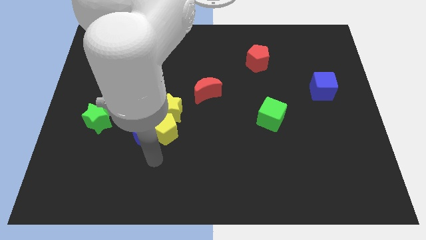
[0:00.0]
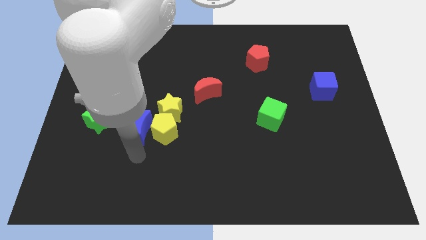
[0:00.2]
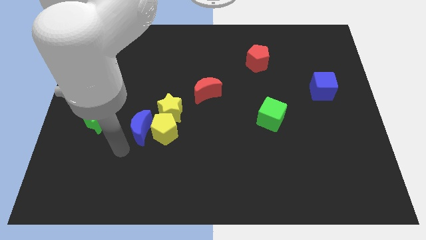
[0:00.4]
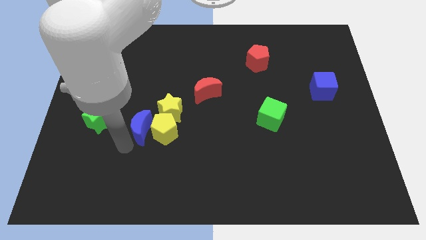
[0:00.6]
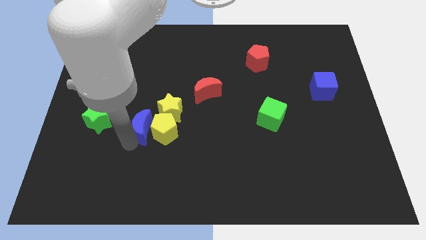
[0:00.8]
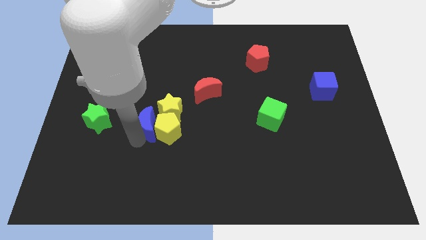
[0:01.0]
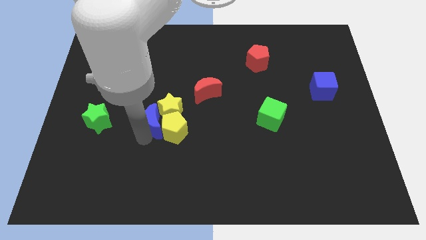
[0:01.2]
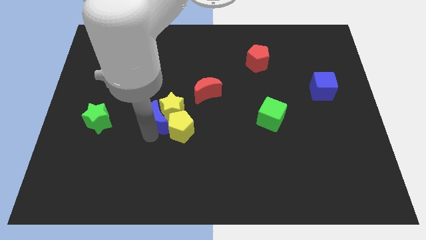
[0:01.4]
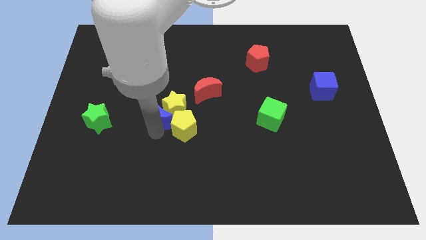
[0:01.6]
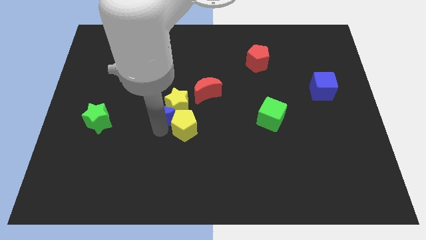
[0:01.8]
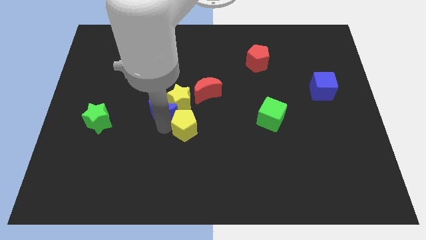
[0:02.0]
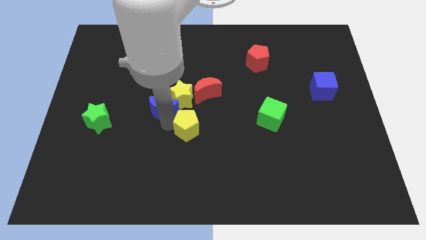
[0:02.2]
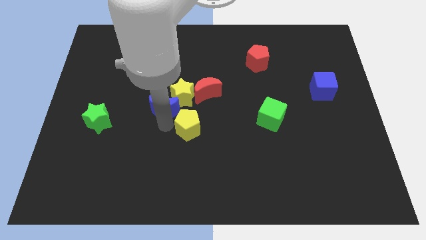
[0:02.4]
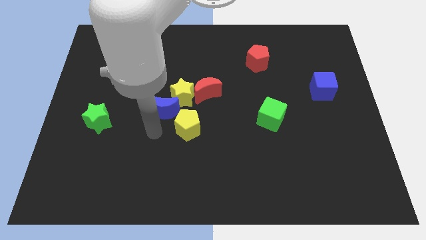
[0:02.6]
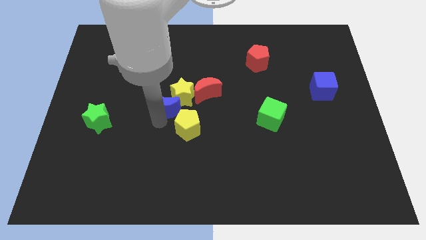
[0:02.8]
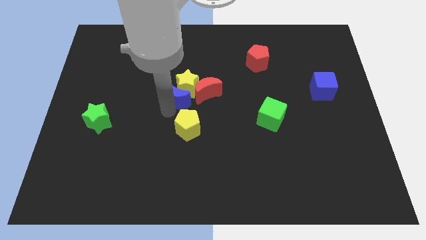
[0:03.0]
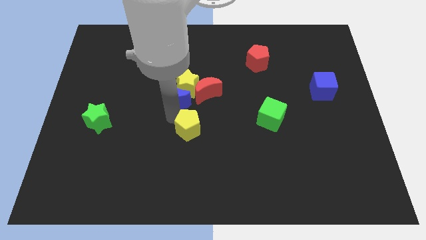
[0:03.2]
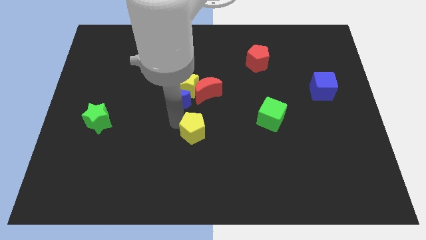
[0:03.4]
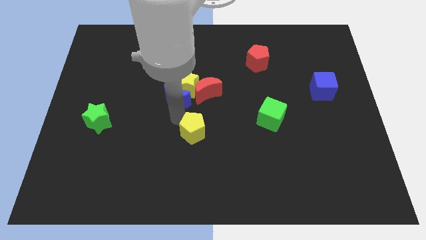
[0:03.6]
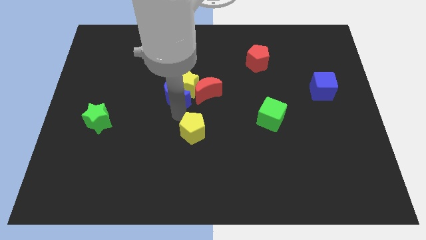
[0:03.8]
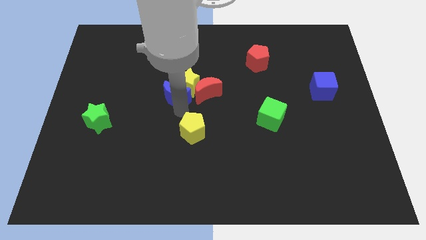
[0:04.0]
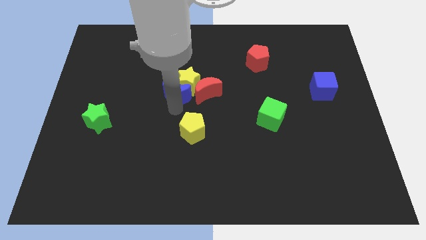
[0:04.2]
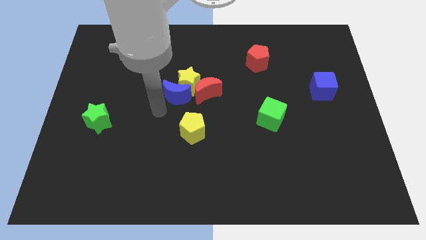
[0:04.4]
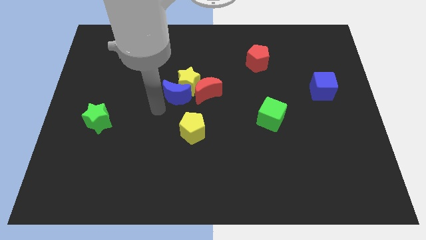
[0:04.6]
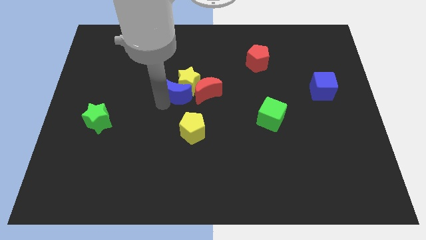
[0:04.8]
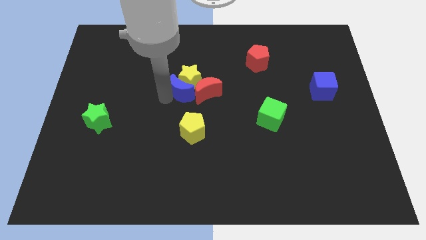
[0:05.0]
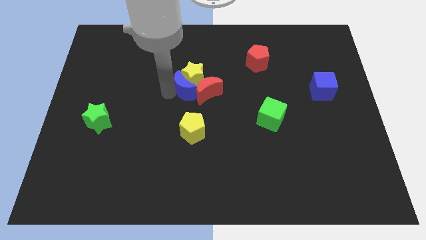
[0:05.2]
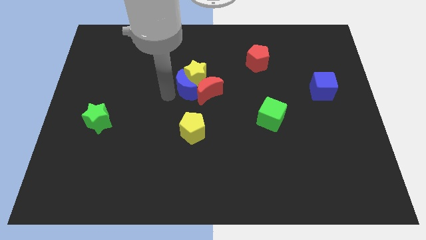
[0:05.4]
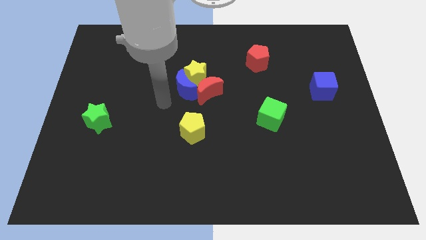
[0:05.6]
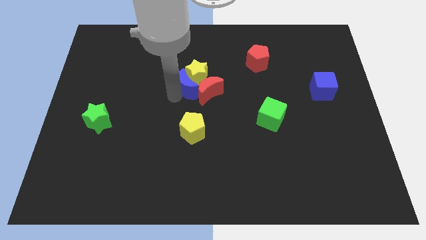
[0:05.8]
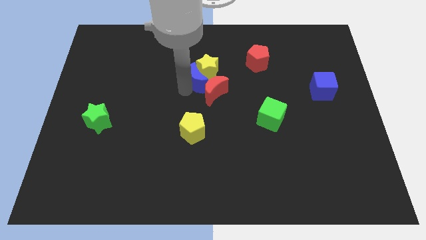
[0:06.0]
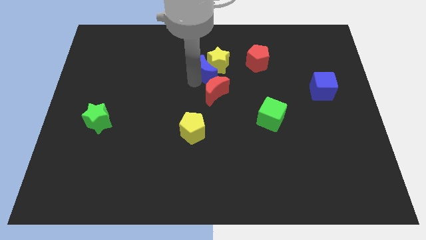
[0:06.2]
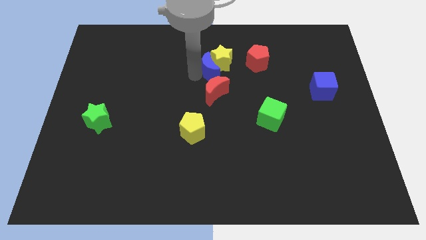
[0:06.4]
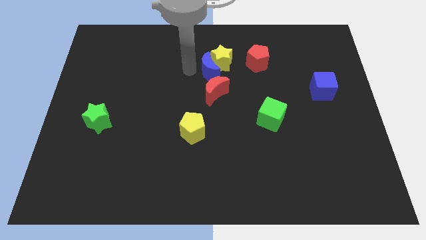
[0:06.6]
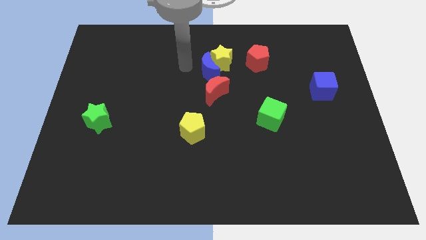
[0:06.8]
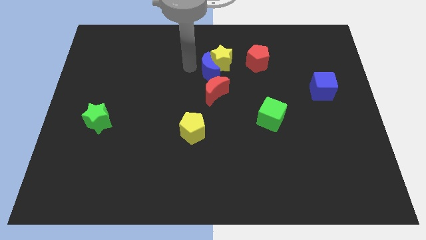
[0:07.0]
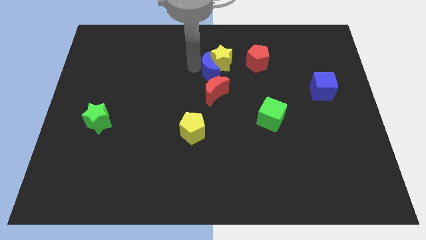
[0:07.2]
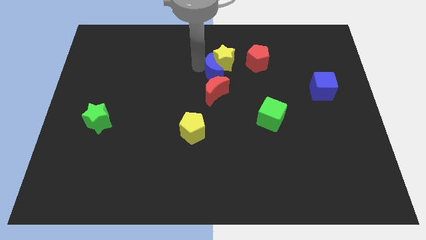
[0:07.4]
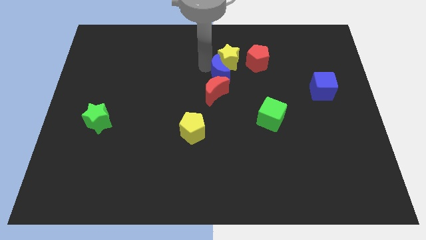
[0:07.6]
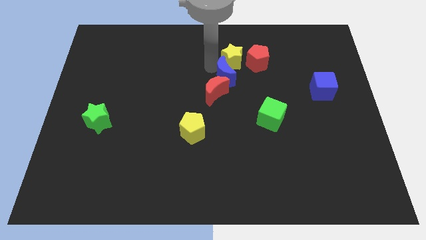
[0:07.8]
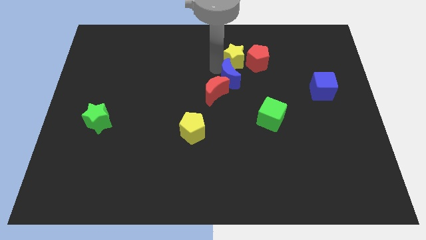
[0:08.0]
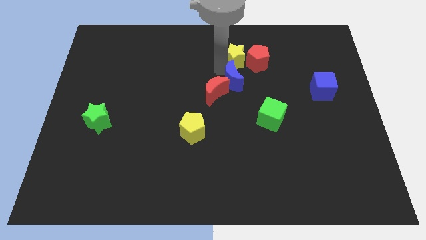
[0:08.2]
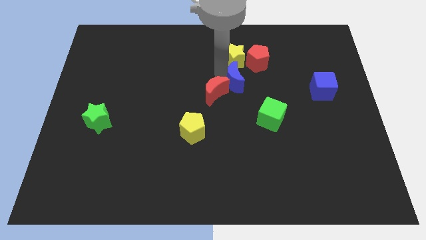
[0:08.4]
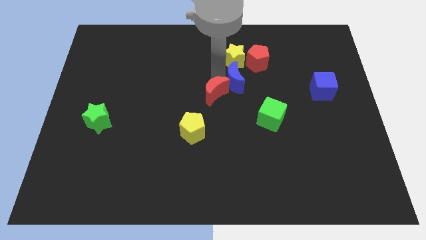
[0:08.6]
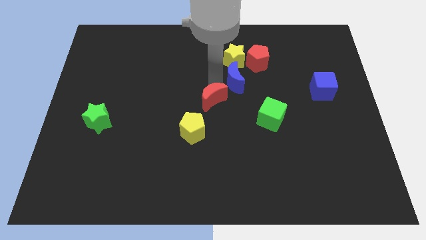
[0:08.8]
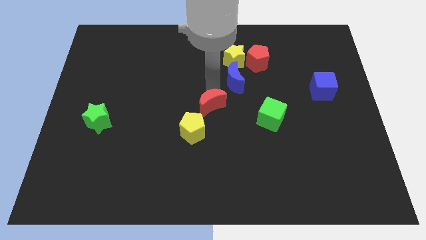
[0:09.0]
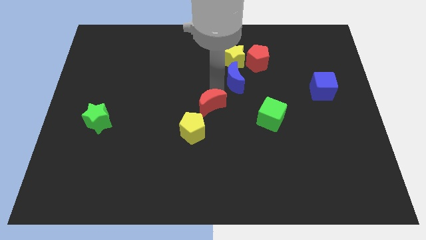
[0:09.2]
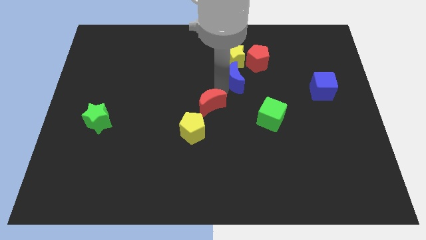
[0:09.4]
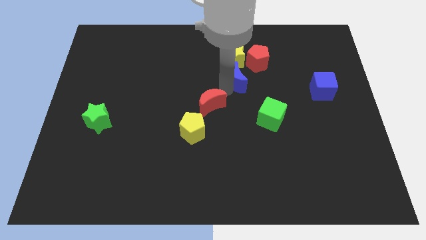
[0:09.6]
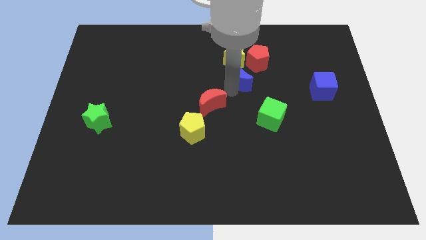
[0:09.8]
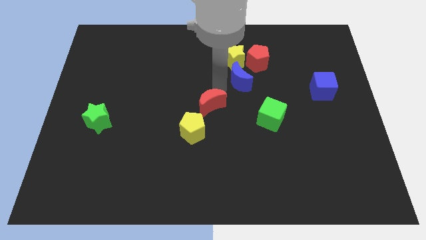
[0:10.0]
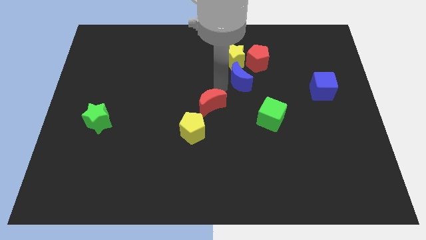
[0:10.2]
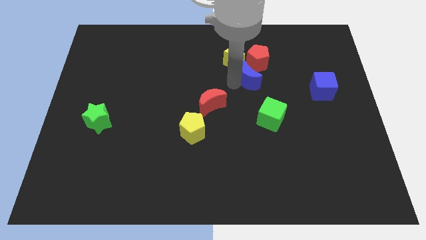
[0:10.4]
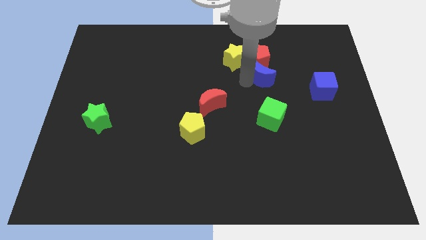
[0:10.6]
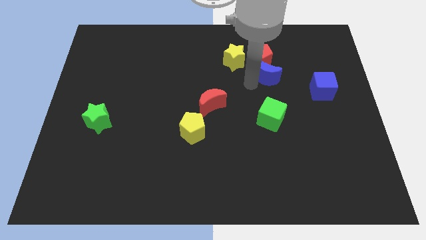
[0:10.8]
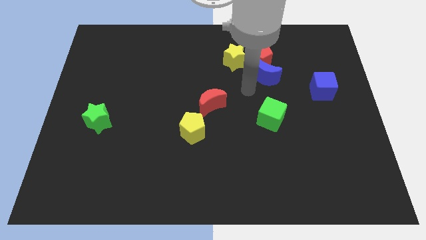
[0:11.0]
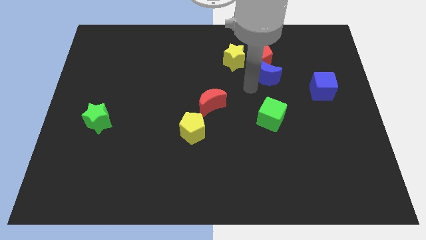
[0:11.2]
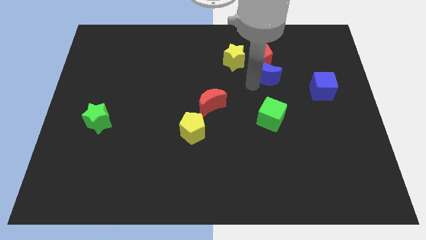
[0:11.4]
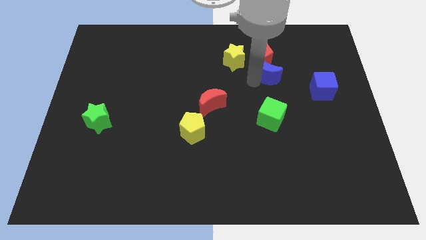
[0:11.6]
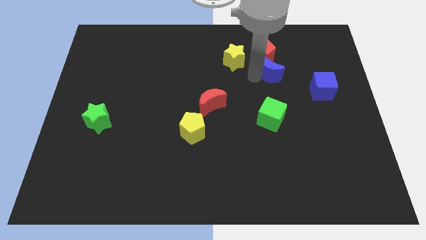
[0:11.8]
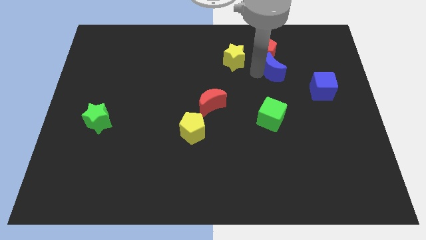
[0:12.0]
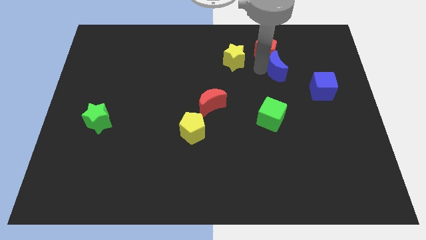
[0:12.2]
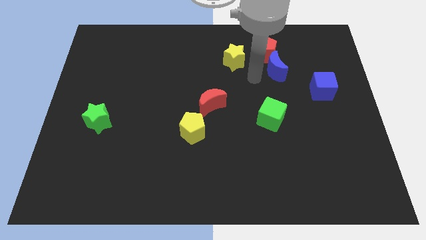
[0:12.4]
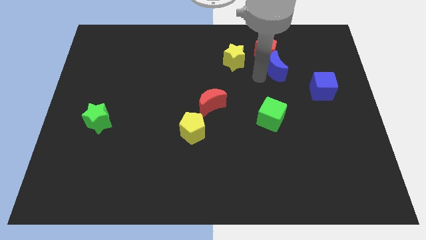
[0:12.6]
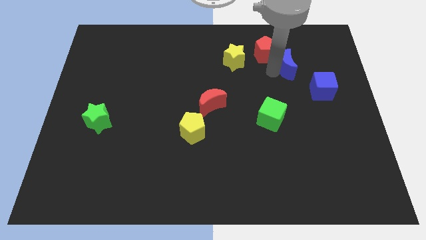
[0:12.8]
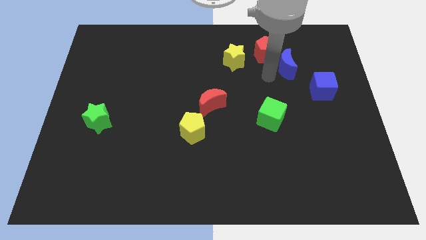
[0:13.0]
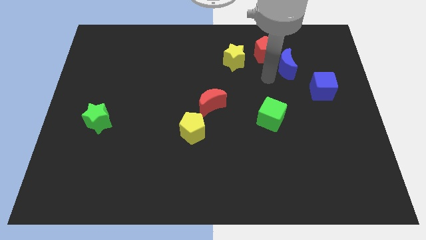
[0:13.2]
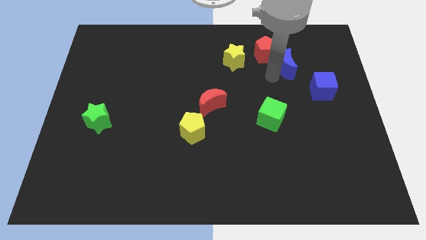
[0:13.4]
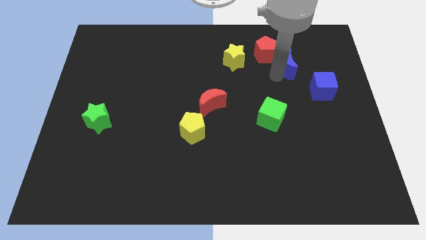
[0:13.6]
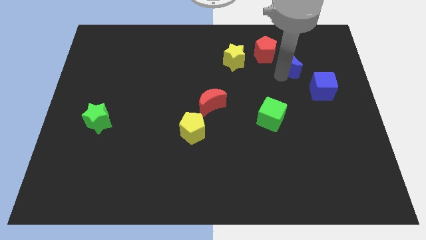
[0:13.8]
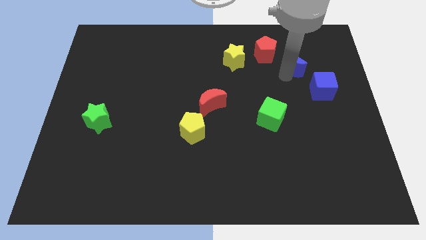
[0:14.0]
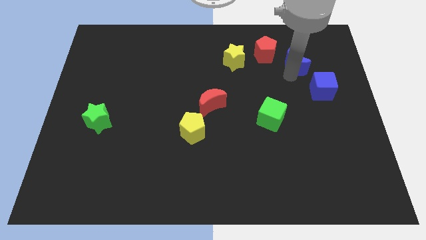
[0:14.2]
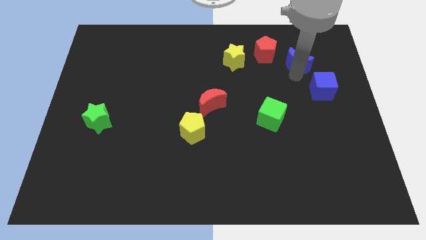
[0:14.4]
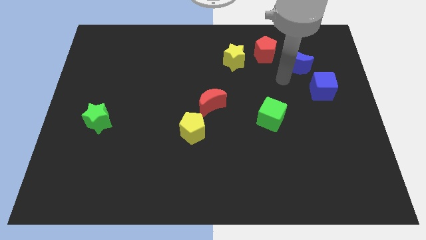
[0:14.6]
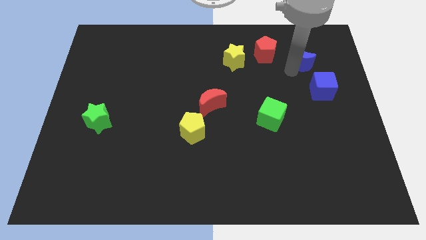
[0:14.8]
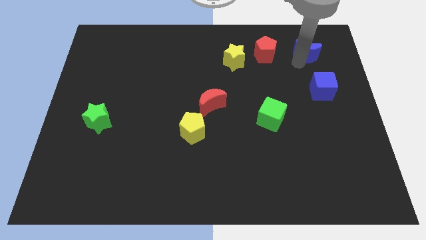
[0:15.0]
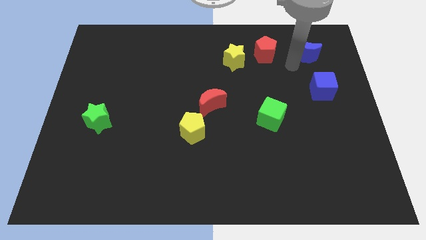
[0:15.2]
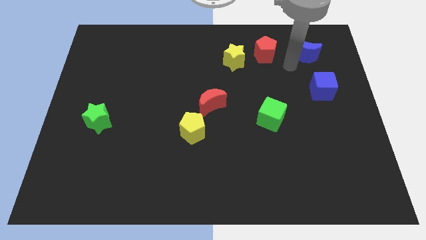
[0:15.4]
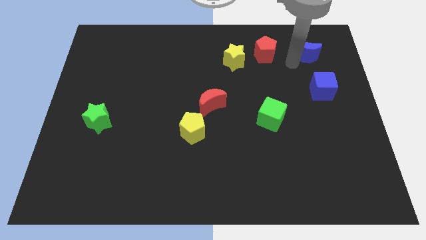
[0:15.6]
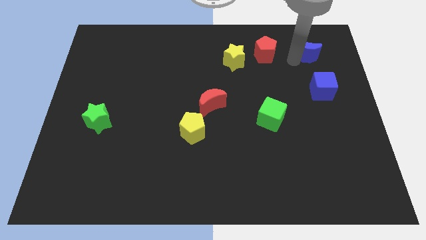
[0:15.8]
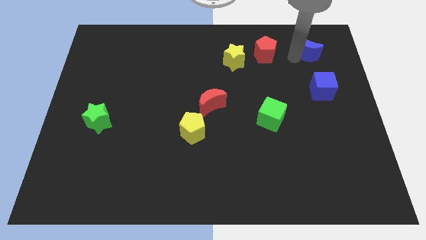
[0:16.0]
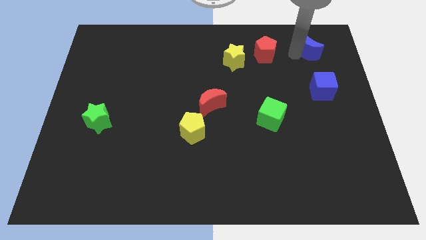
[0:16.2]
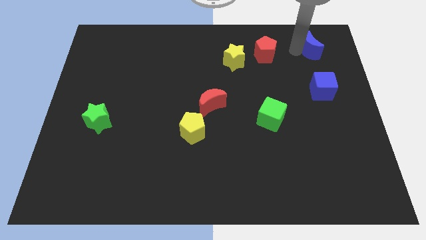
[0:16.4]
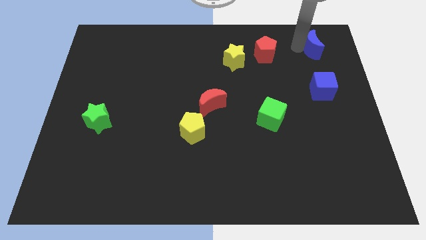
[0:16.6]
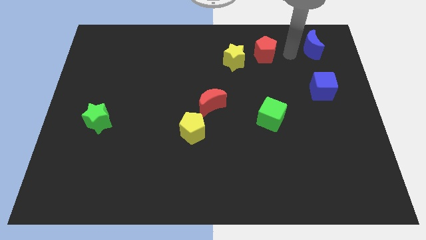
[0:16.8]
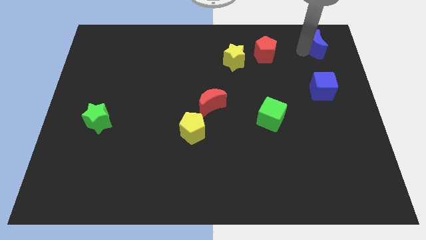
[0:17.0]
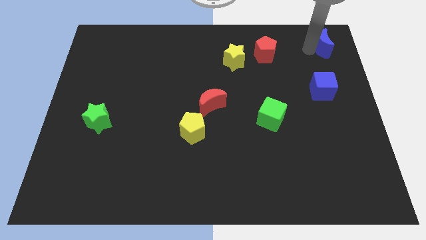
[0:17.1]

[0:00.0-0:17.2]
push the blue moon to the top right of the board
